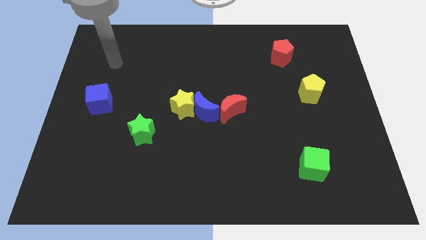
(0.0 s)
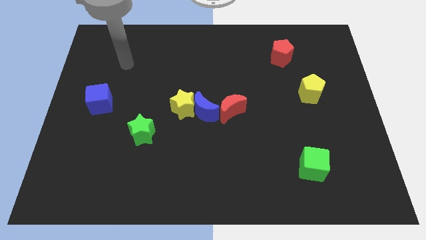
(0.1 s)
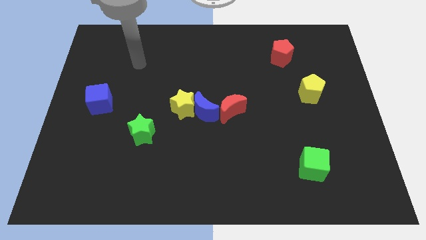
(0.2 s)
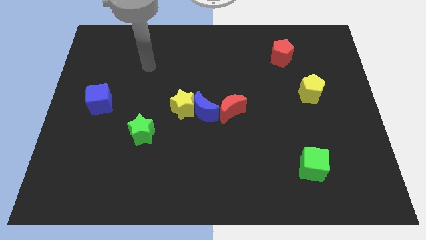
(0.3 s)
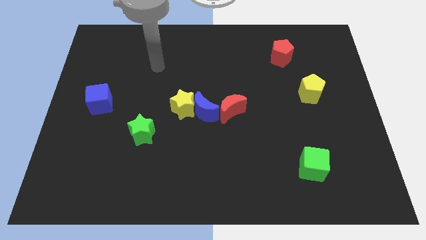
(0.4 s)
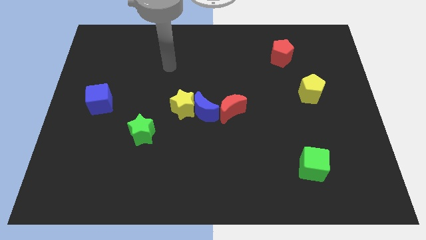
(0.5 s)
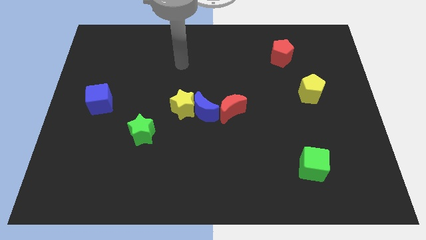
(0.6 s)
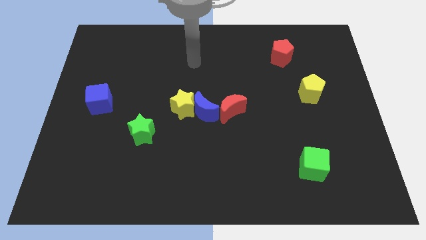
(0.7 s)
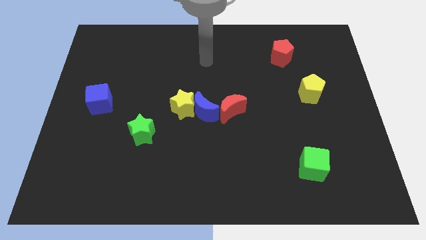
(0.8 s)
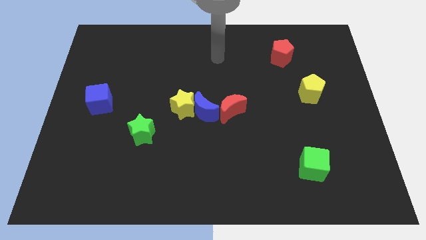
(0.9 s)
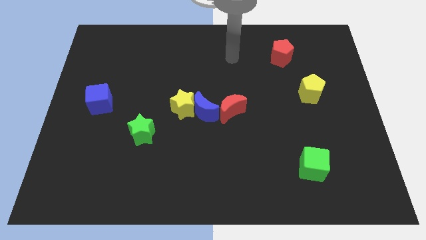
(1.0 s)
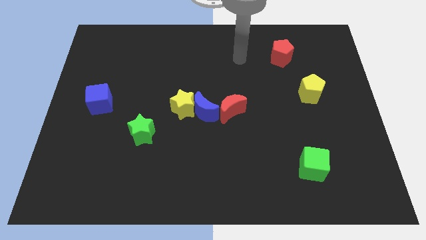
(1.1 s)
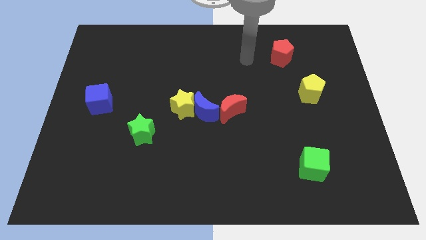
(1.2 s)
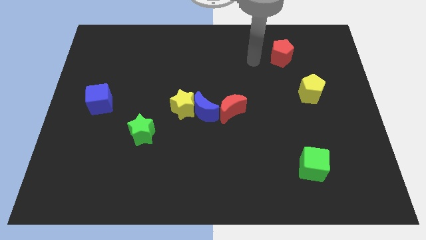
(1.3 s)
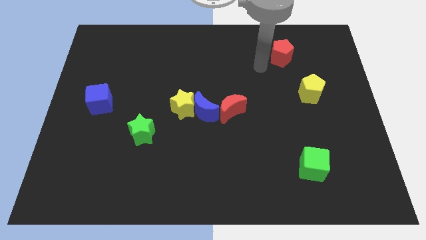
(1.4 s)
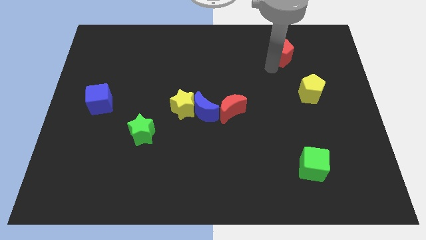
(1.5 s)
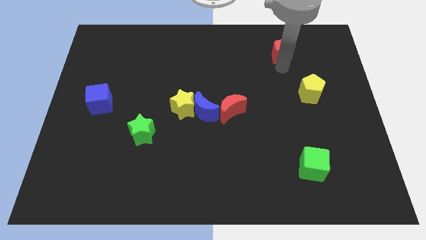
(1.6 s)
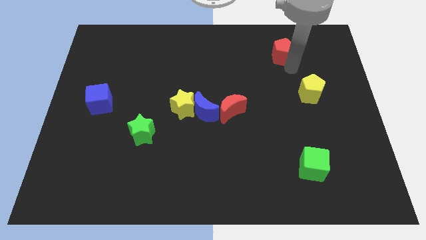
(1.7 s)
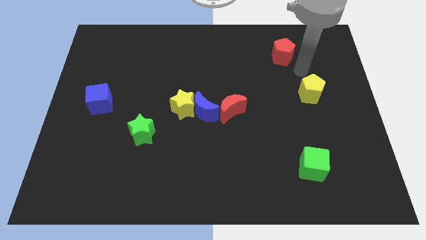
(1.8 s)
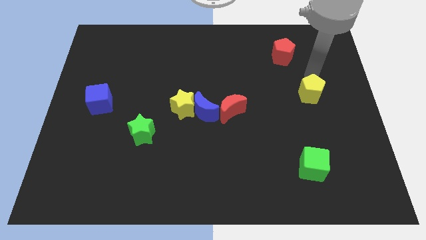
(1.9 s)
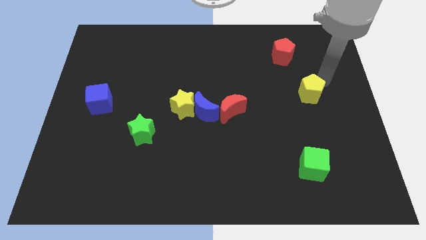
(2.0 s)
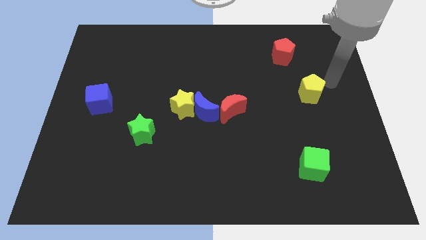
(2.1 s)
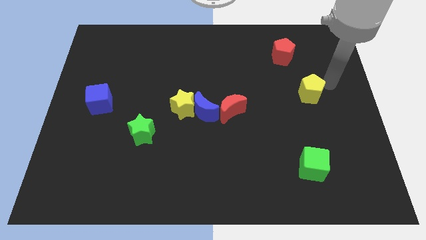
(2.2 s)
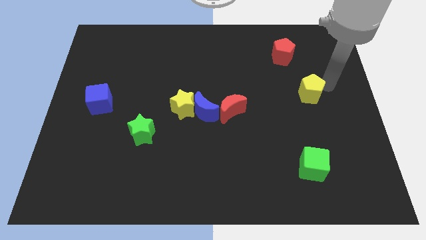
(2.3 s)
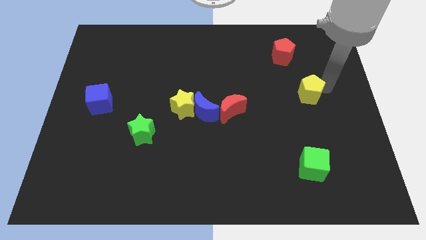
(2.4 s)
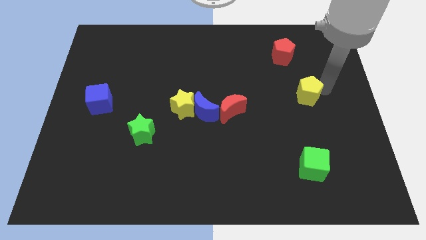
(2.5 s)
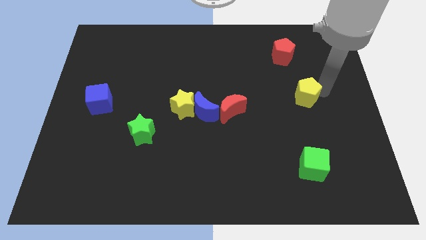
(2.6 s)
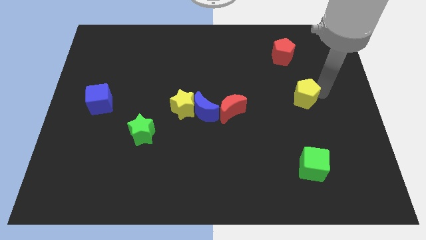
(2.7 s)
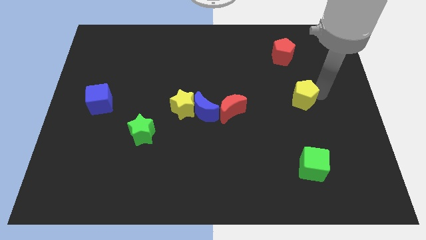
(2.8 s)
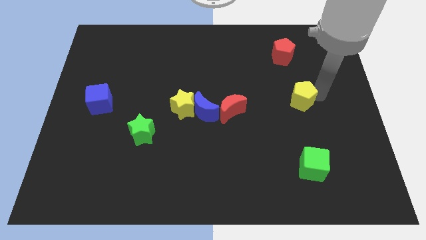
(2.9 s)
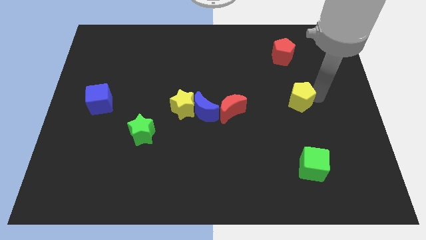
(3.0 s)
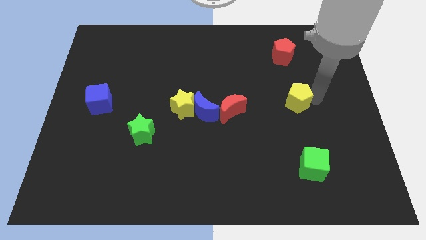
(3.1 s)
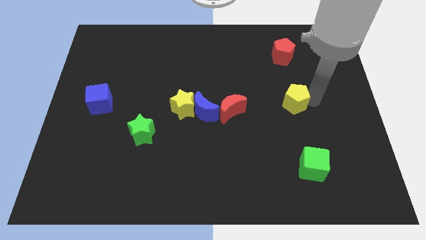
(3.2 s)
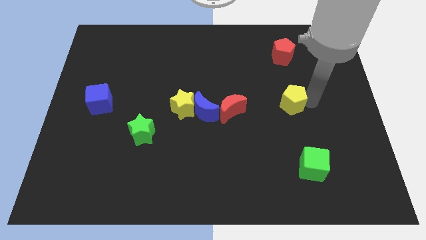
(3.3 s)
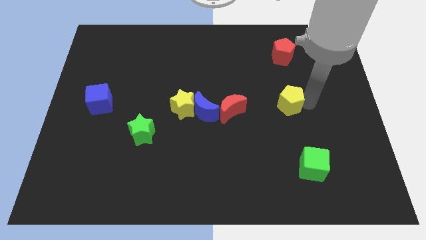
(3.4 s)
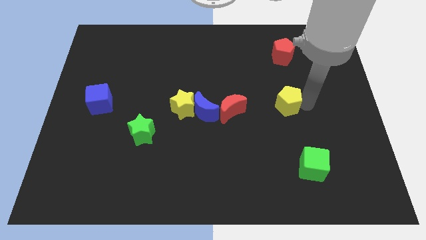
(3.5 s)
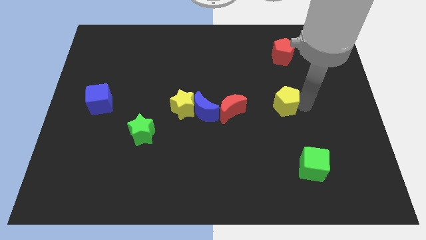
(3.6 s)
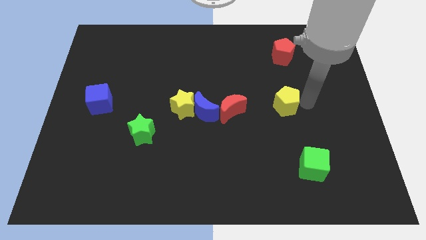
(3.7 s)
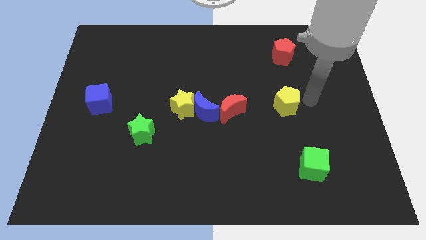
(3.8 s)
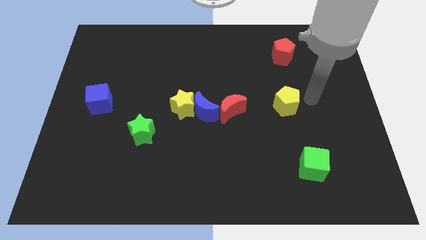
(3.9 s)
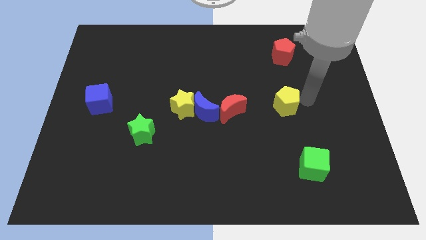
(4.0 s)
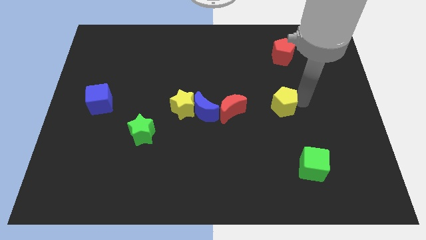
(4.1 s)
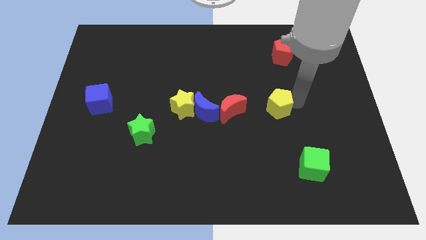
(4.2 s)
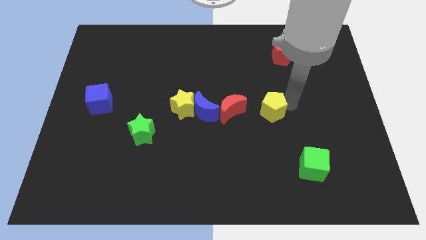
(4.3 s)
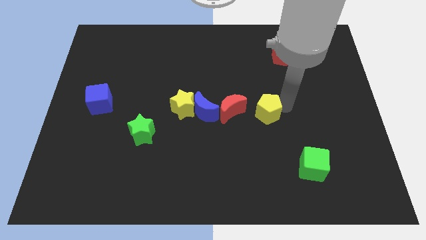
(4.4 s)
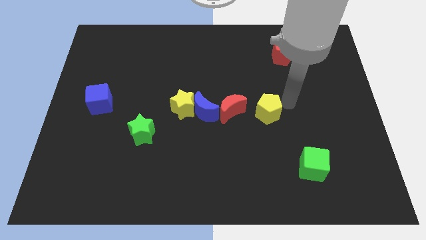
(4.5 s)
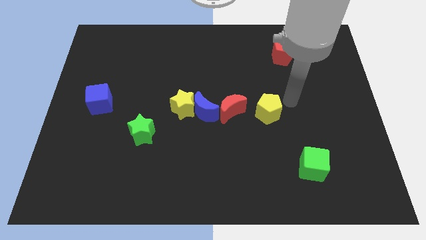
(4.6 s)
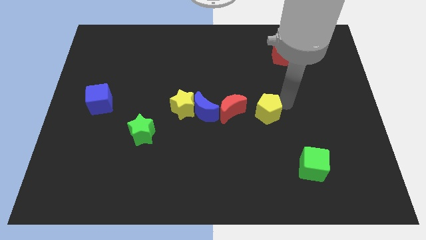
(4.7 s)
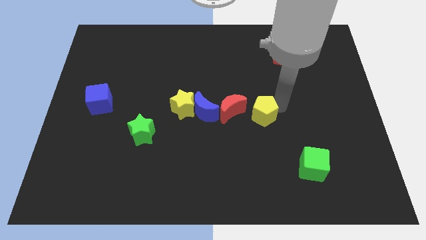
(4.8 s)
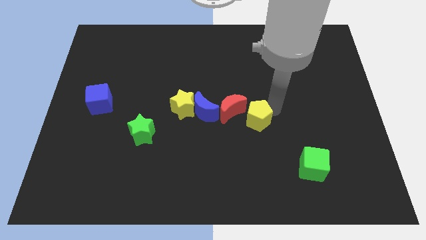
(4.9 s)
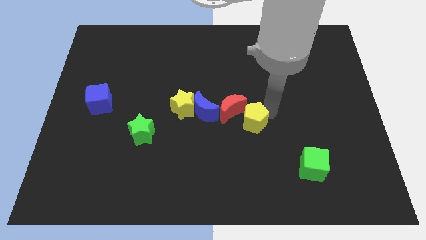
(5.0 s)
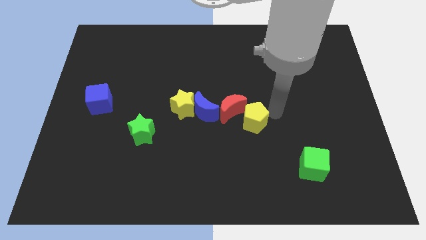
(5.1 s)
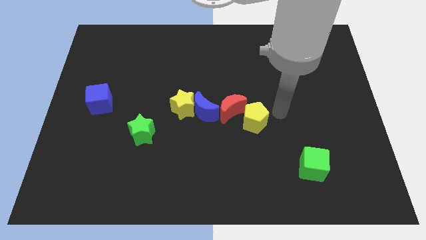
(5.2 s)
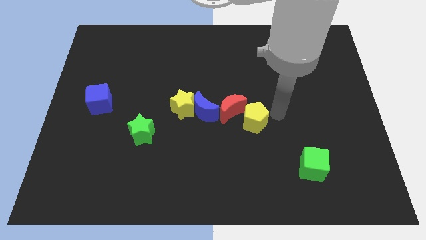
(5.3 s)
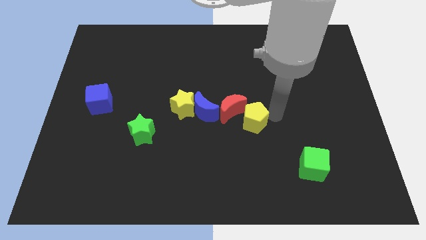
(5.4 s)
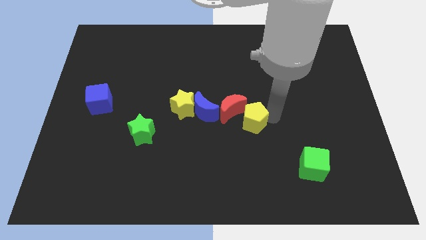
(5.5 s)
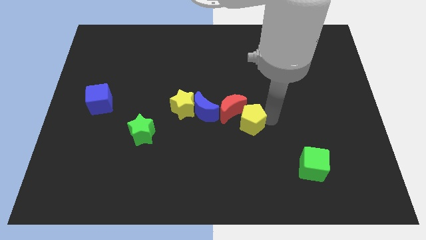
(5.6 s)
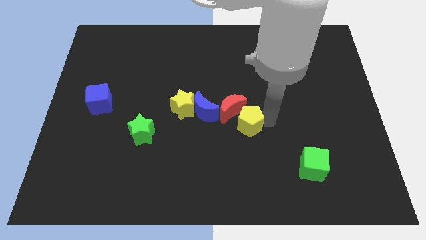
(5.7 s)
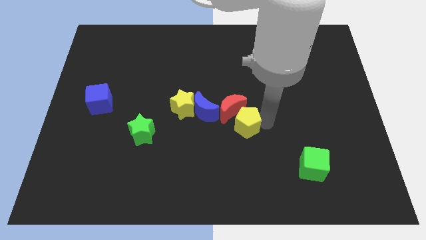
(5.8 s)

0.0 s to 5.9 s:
push the yellow pentagon to the bottom right of the blue moon
